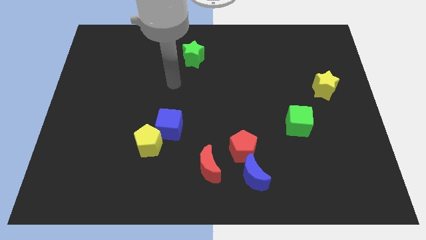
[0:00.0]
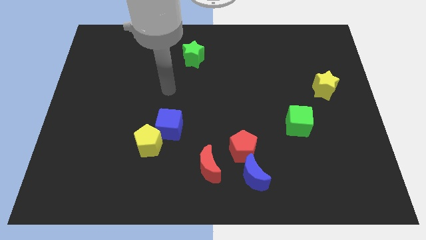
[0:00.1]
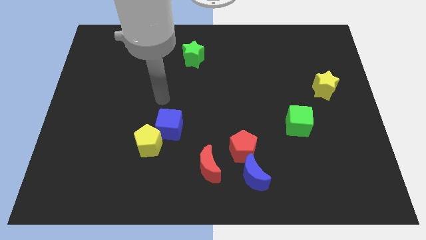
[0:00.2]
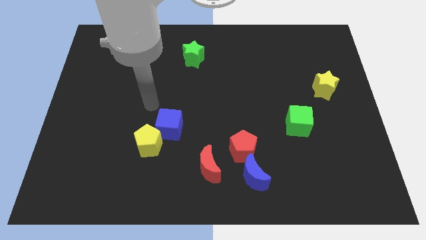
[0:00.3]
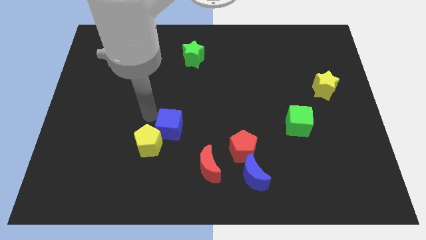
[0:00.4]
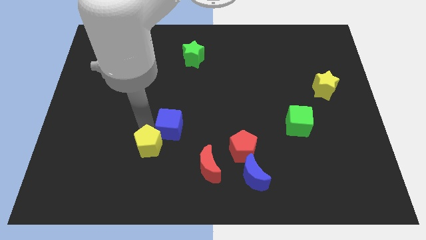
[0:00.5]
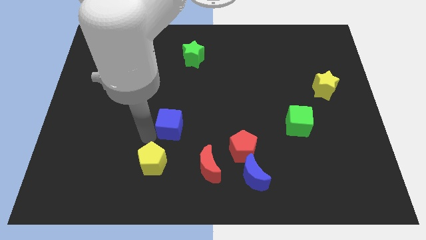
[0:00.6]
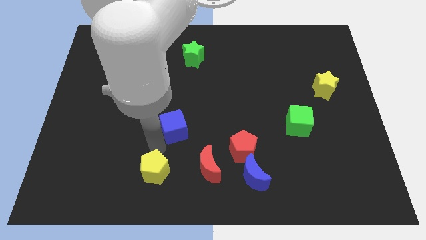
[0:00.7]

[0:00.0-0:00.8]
move the blue cube away from the yellow pentagon

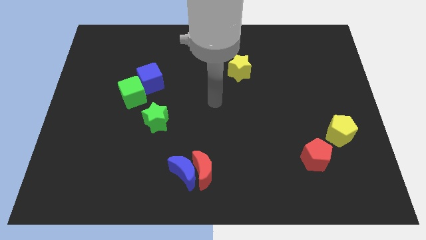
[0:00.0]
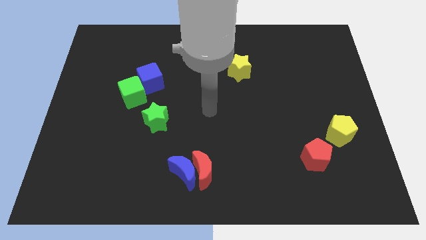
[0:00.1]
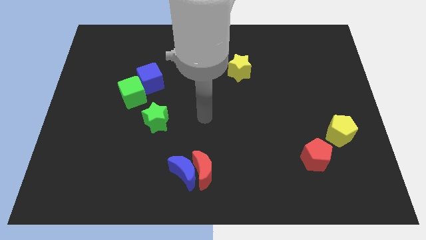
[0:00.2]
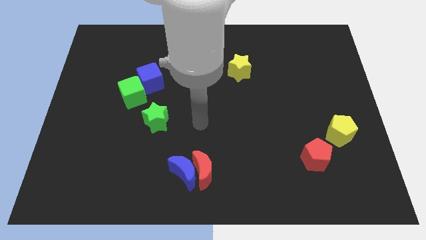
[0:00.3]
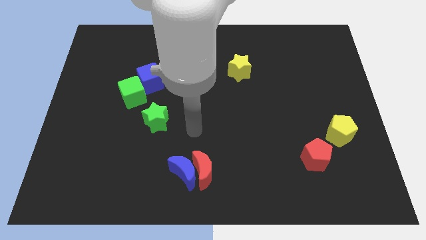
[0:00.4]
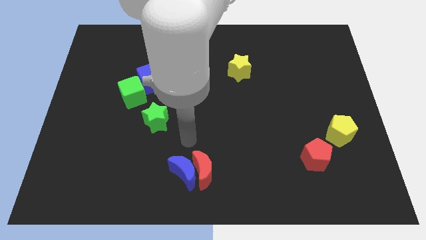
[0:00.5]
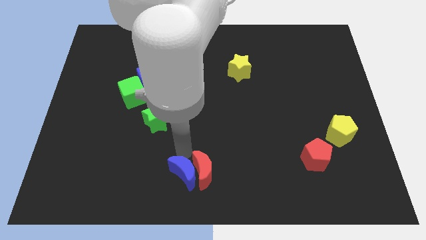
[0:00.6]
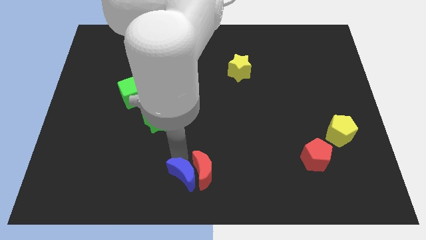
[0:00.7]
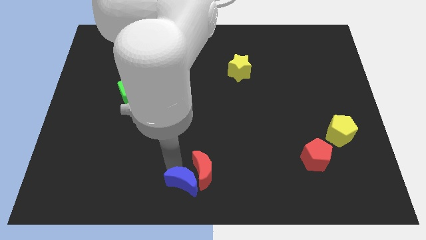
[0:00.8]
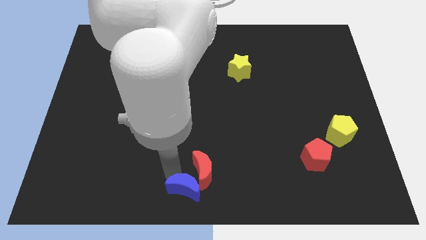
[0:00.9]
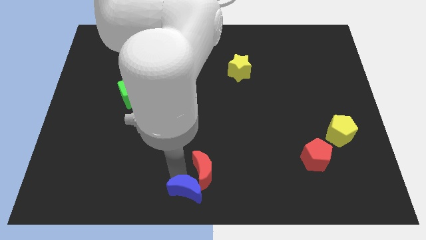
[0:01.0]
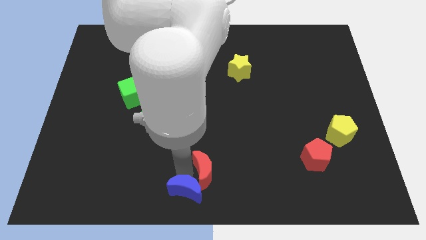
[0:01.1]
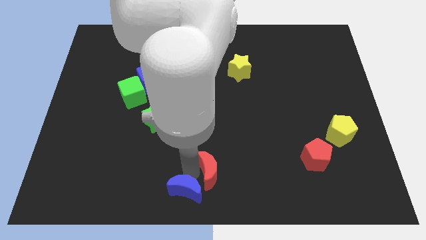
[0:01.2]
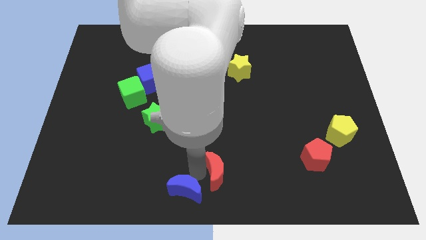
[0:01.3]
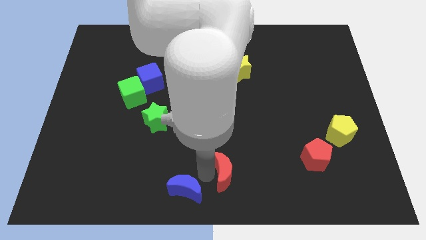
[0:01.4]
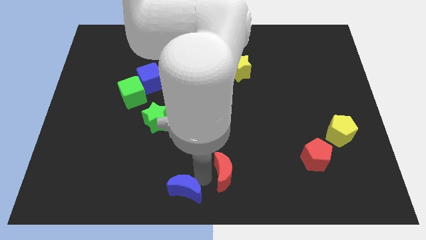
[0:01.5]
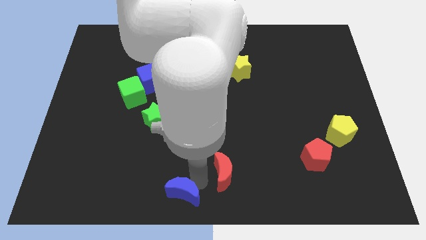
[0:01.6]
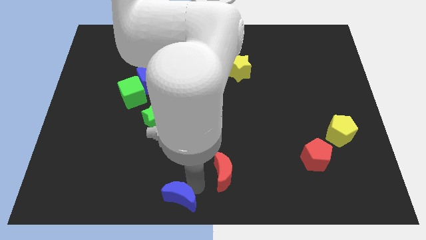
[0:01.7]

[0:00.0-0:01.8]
move the red moon away from the blue moon

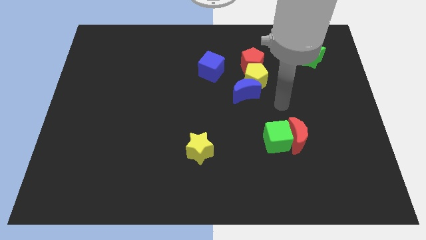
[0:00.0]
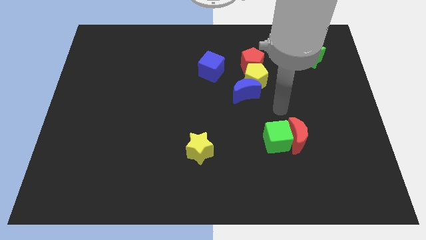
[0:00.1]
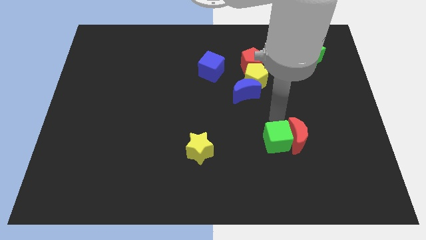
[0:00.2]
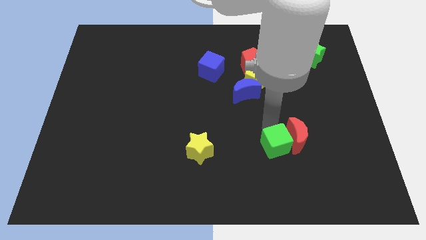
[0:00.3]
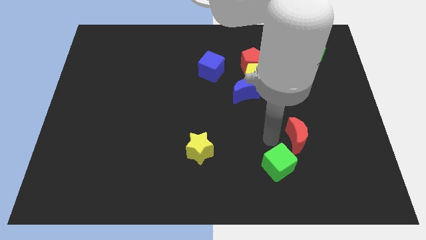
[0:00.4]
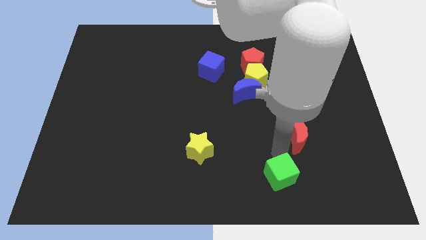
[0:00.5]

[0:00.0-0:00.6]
separate the red moon from the green cube

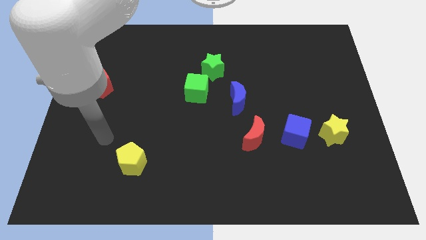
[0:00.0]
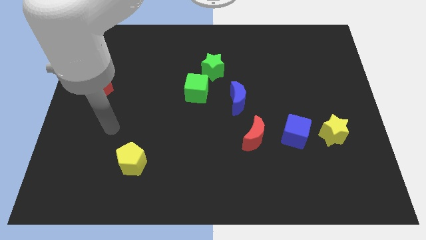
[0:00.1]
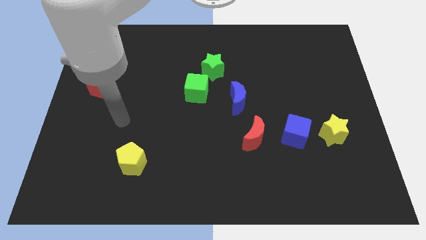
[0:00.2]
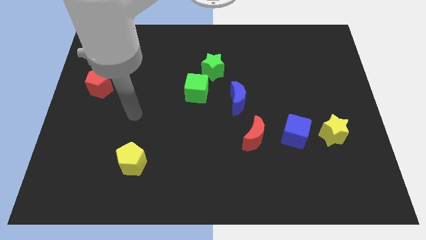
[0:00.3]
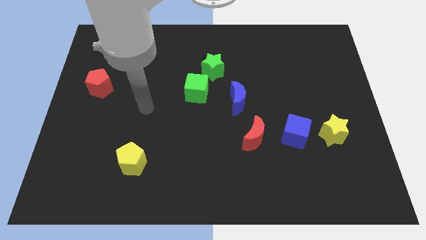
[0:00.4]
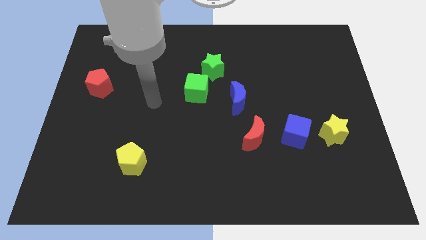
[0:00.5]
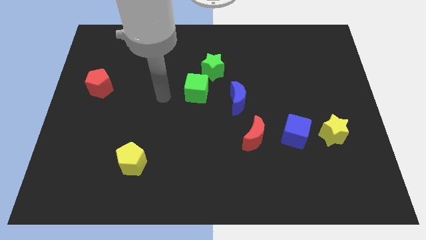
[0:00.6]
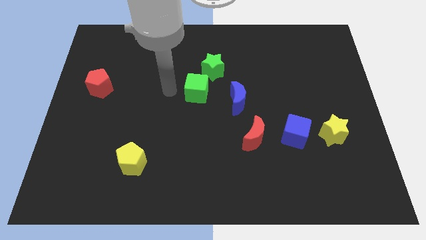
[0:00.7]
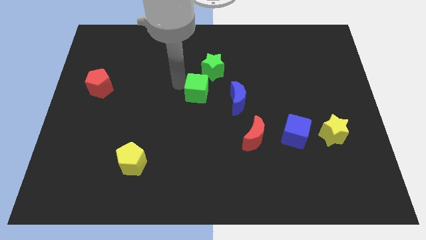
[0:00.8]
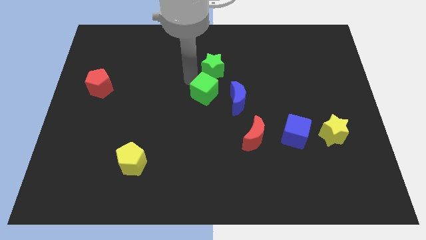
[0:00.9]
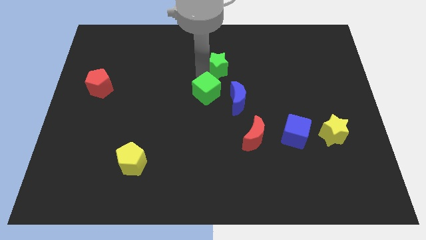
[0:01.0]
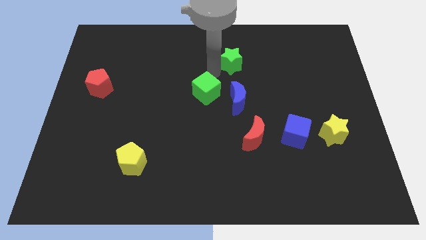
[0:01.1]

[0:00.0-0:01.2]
move the green cube away from the green star

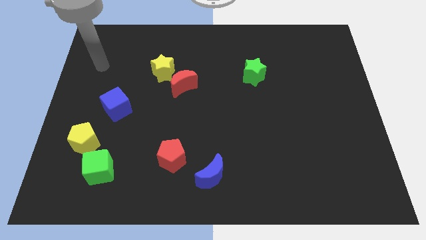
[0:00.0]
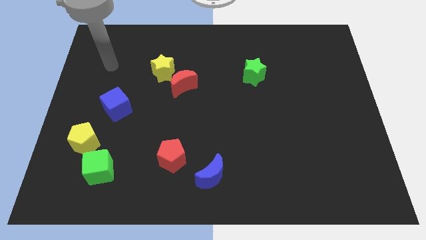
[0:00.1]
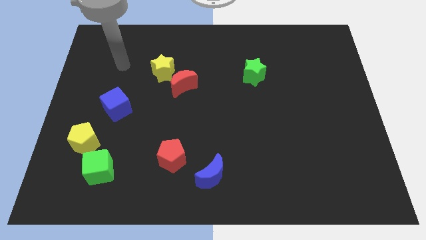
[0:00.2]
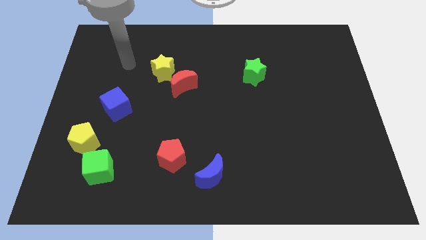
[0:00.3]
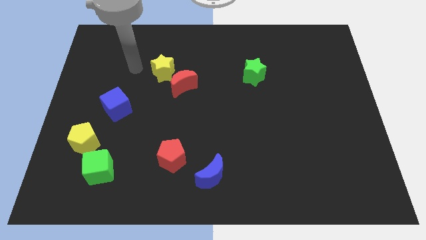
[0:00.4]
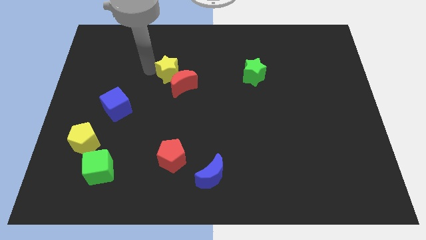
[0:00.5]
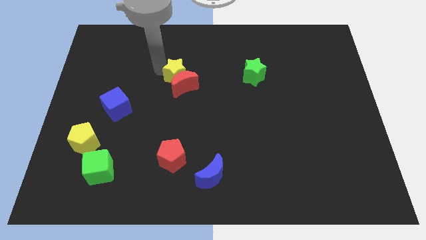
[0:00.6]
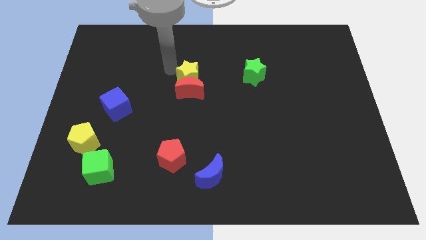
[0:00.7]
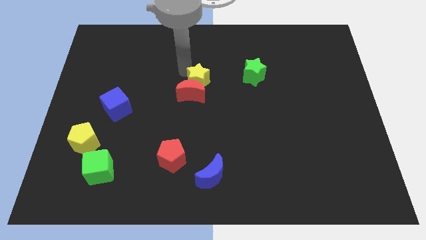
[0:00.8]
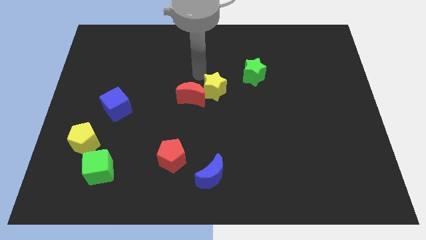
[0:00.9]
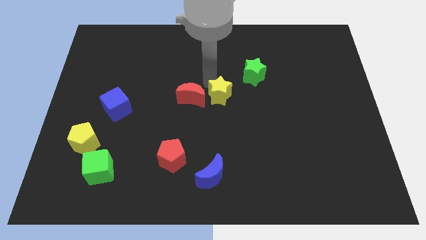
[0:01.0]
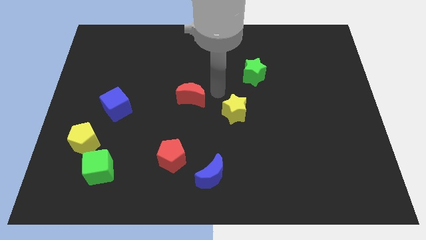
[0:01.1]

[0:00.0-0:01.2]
pull the red moon apart from the yellow star

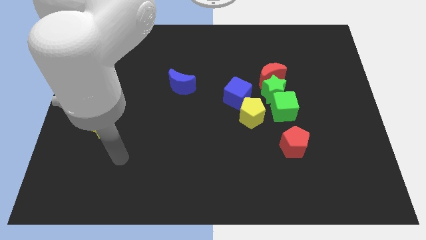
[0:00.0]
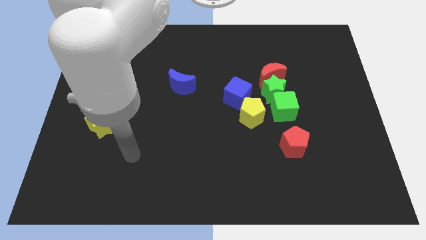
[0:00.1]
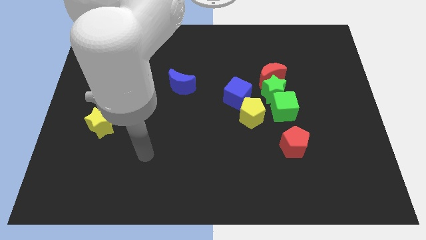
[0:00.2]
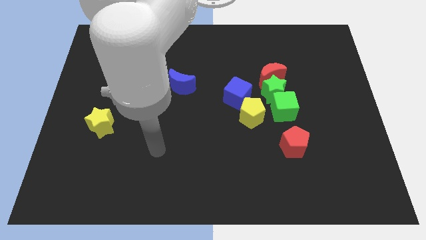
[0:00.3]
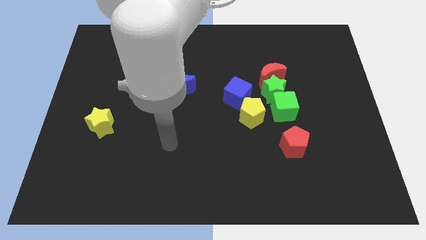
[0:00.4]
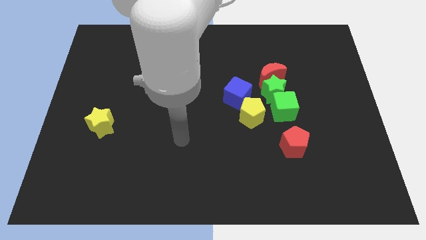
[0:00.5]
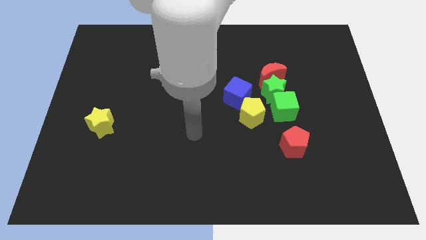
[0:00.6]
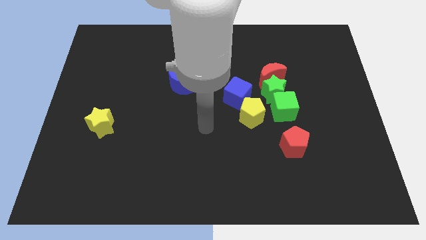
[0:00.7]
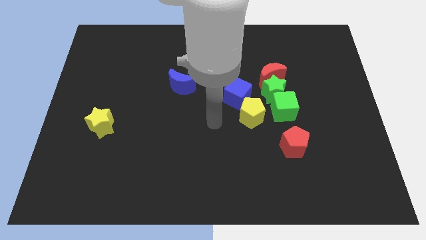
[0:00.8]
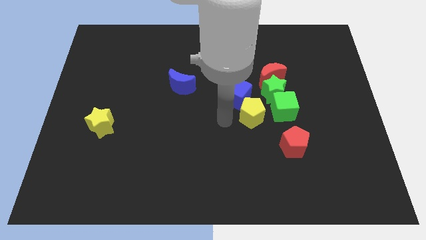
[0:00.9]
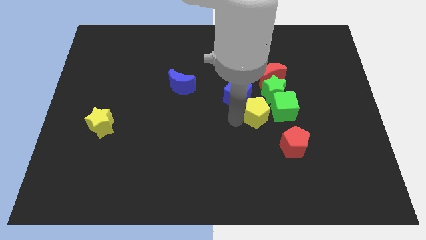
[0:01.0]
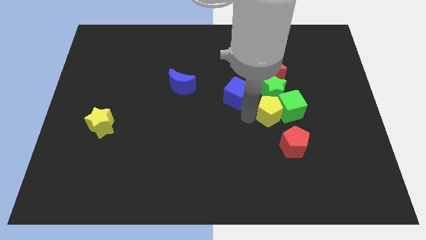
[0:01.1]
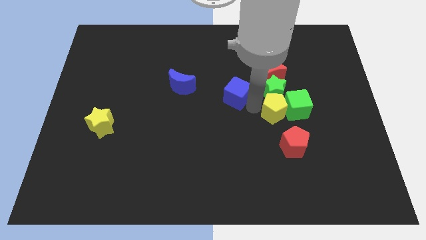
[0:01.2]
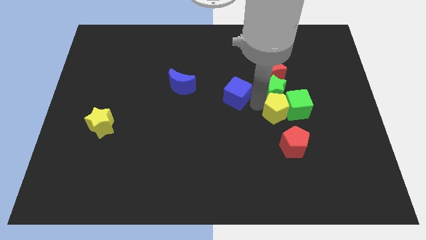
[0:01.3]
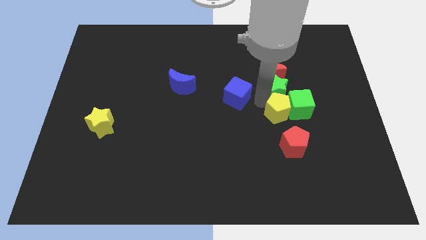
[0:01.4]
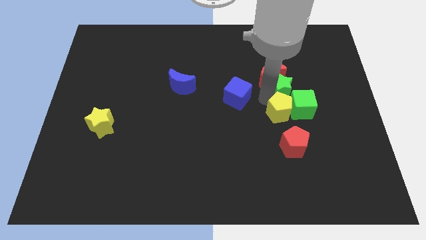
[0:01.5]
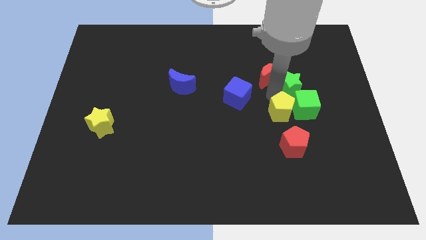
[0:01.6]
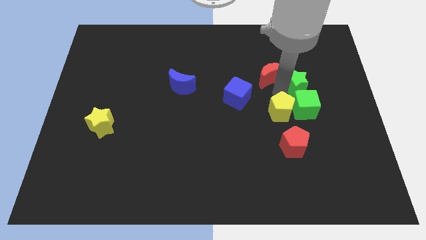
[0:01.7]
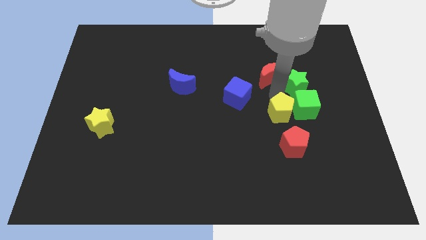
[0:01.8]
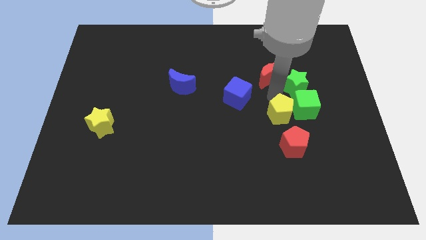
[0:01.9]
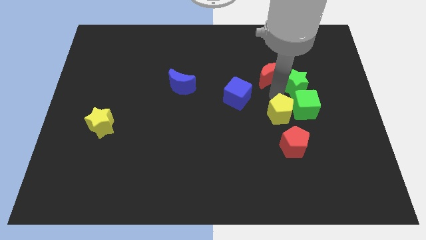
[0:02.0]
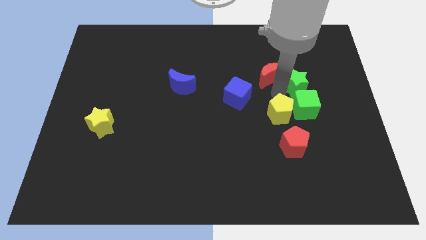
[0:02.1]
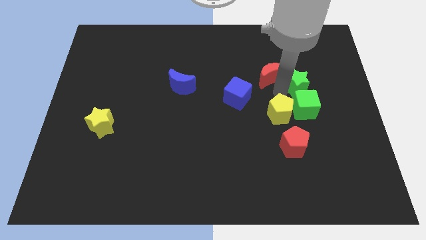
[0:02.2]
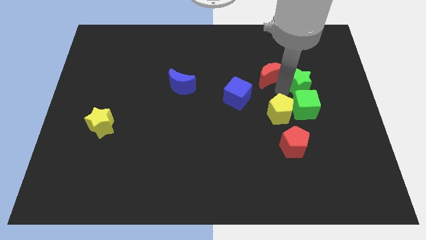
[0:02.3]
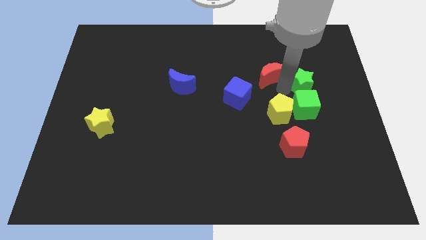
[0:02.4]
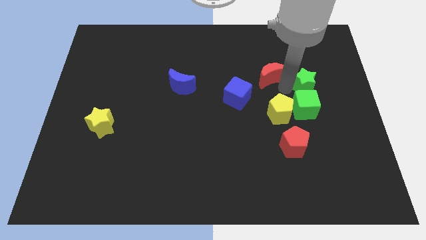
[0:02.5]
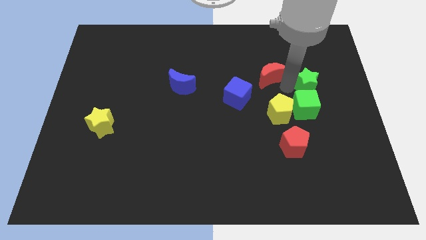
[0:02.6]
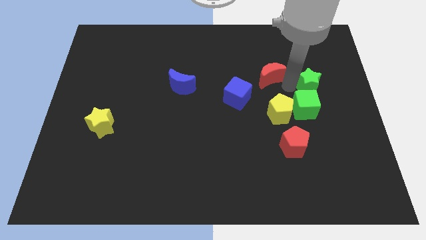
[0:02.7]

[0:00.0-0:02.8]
move the green star away from the group

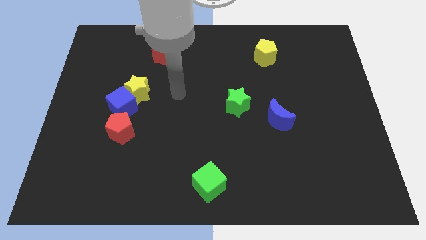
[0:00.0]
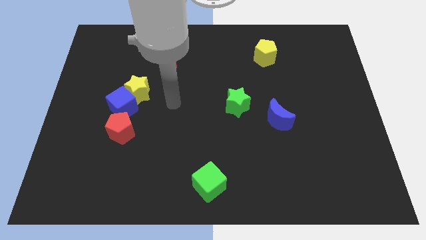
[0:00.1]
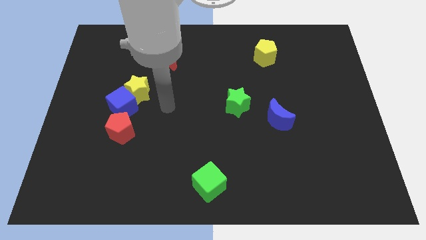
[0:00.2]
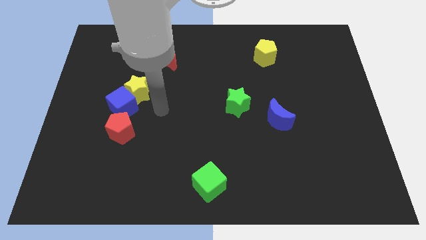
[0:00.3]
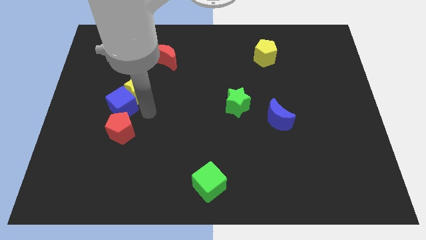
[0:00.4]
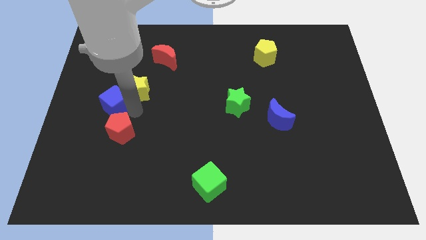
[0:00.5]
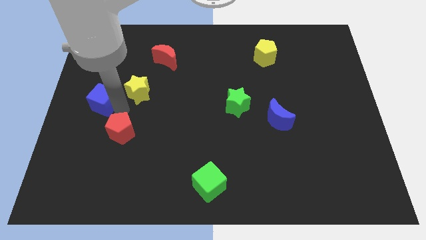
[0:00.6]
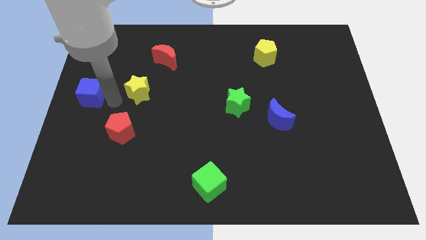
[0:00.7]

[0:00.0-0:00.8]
separate the yellow star from the blue cube
